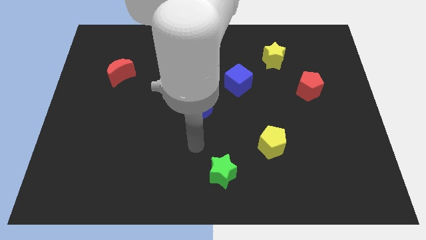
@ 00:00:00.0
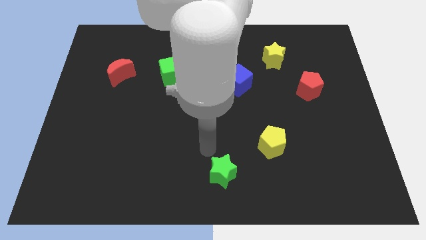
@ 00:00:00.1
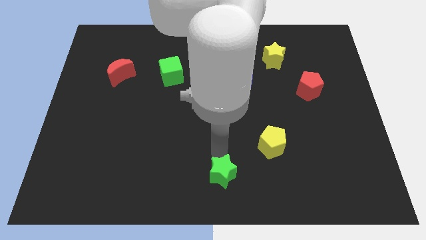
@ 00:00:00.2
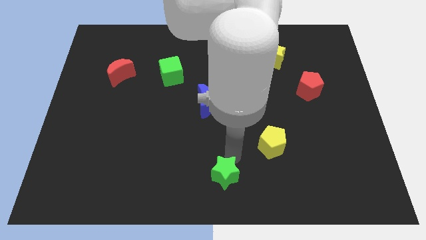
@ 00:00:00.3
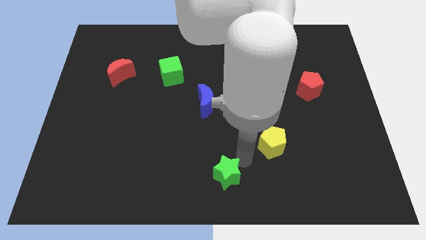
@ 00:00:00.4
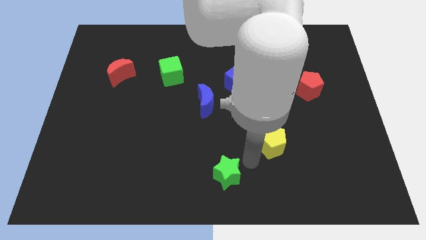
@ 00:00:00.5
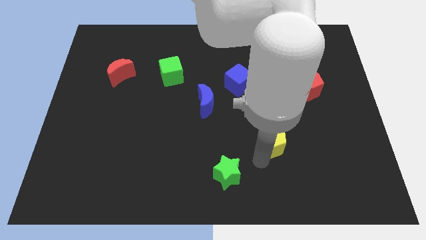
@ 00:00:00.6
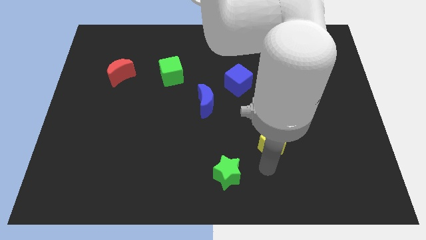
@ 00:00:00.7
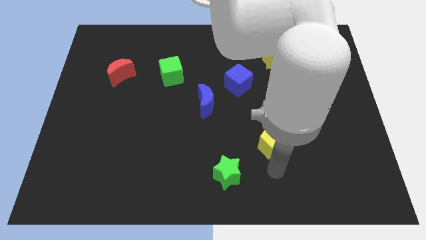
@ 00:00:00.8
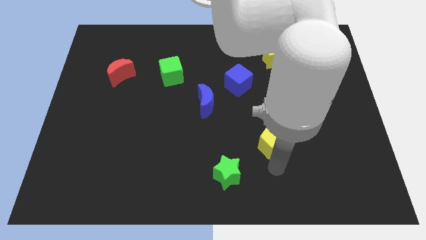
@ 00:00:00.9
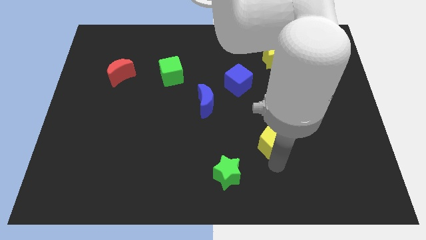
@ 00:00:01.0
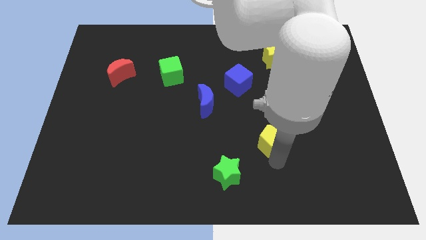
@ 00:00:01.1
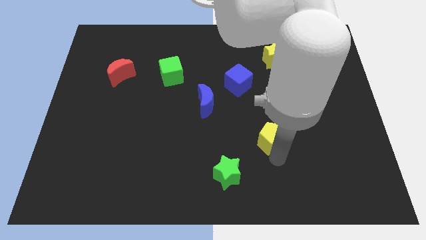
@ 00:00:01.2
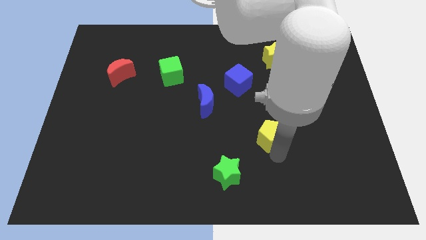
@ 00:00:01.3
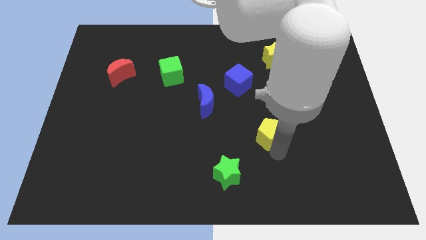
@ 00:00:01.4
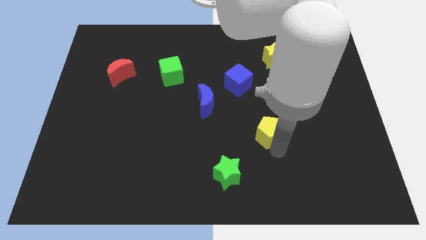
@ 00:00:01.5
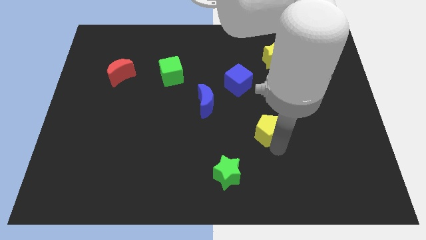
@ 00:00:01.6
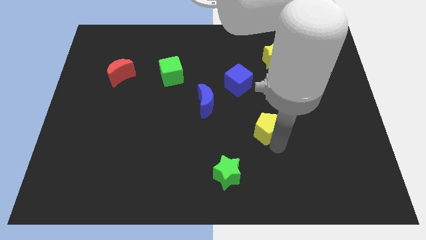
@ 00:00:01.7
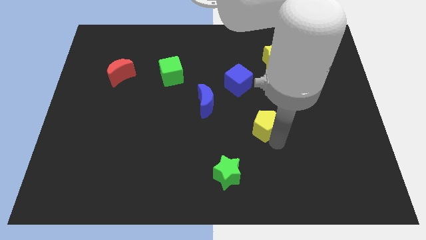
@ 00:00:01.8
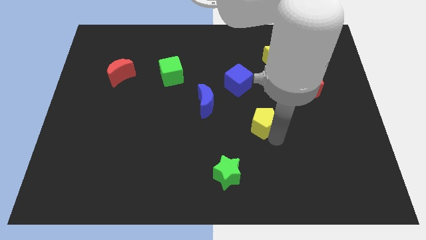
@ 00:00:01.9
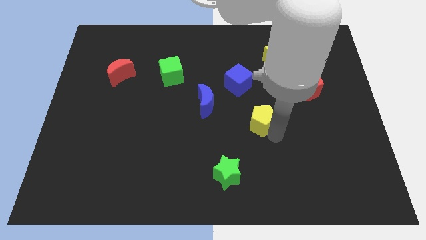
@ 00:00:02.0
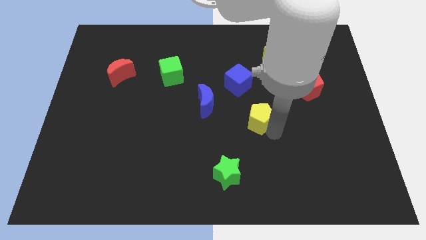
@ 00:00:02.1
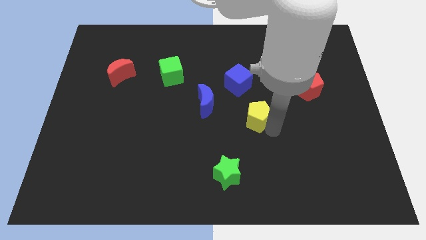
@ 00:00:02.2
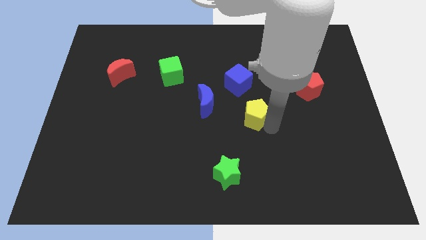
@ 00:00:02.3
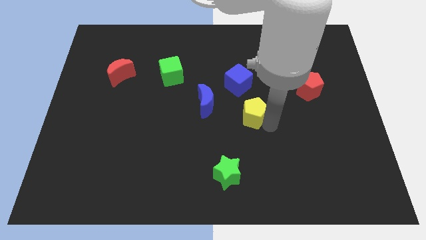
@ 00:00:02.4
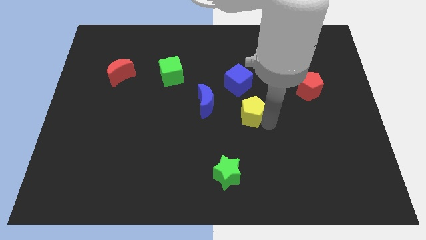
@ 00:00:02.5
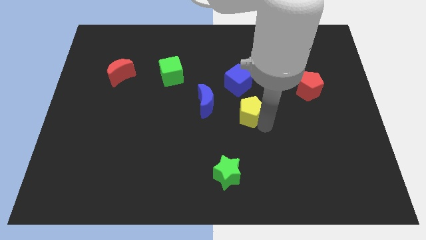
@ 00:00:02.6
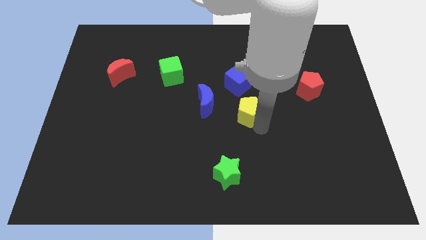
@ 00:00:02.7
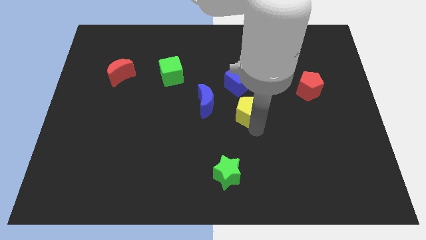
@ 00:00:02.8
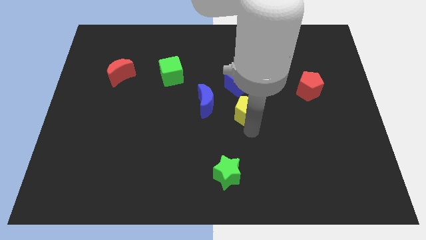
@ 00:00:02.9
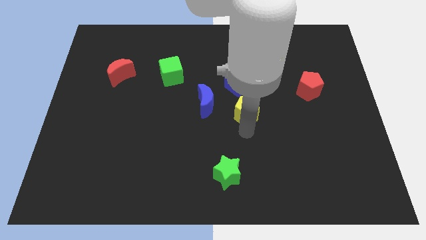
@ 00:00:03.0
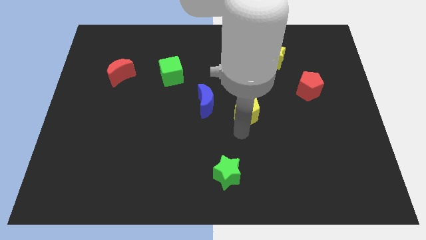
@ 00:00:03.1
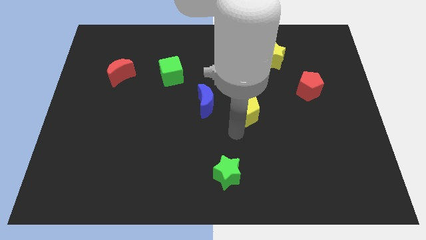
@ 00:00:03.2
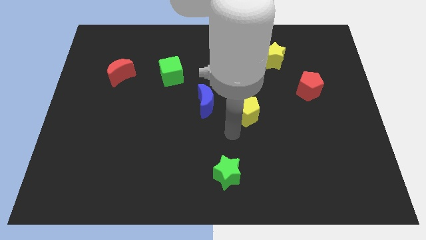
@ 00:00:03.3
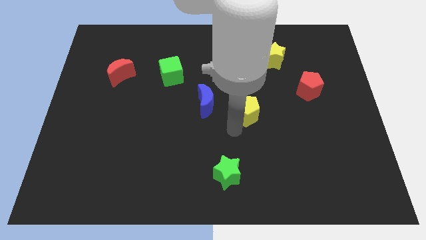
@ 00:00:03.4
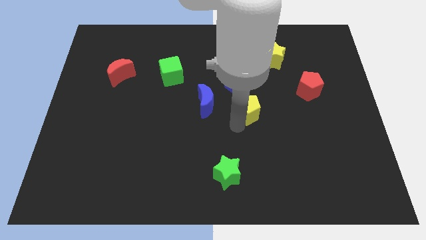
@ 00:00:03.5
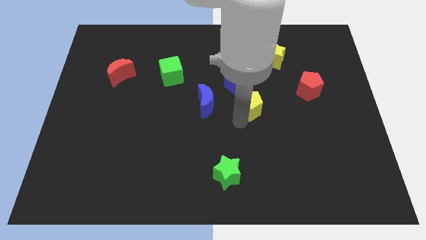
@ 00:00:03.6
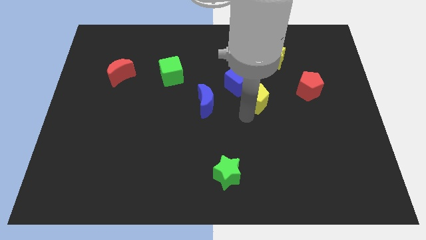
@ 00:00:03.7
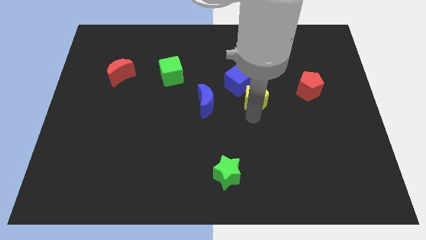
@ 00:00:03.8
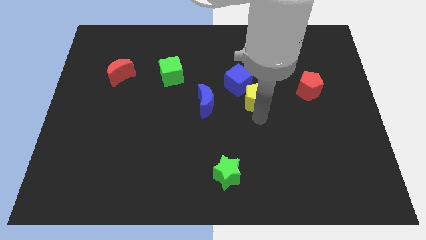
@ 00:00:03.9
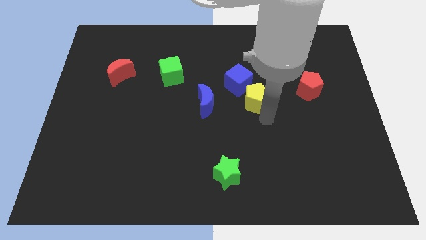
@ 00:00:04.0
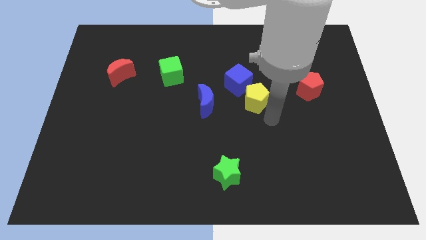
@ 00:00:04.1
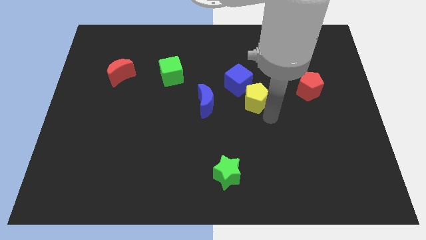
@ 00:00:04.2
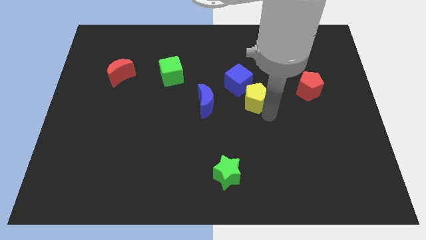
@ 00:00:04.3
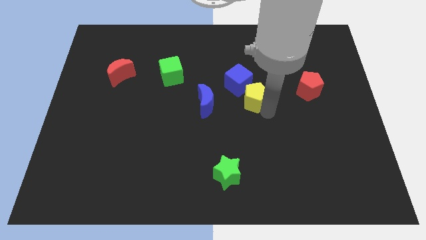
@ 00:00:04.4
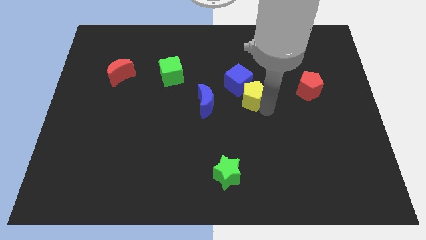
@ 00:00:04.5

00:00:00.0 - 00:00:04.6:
put the yellow pentagon next to the blue cube

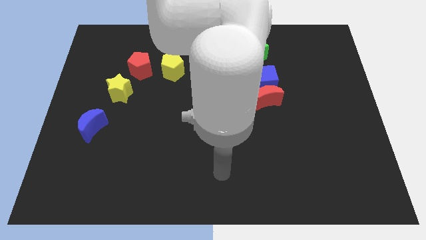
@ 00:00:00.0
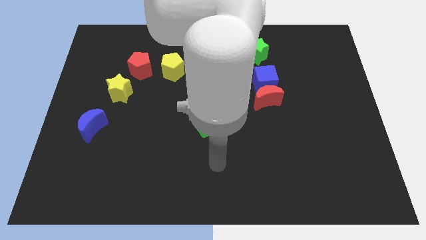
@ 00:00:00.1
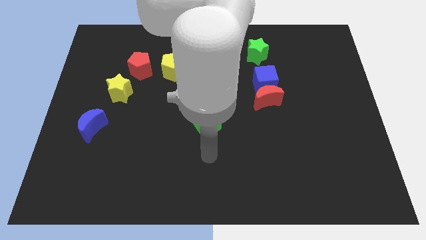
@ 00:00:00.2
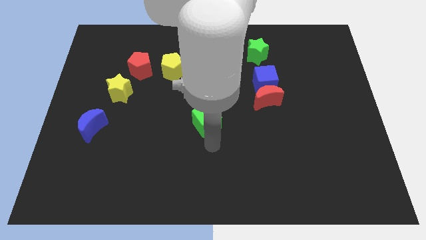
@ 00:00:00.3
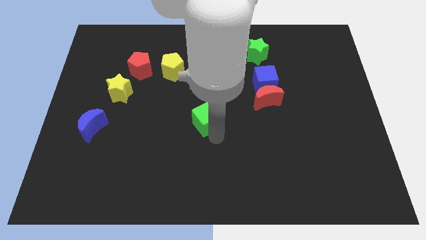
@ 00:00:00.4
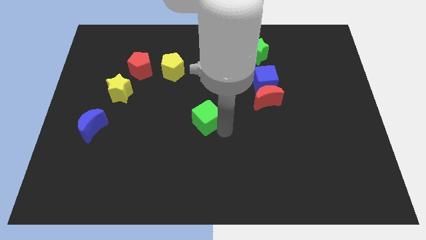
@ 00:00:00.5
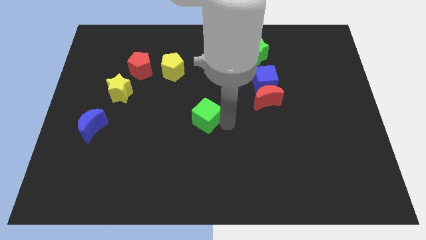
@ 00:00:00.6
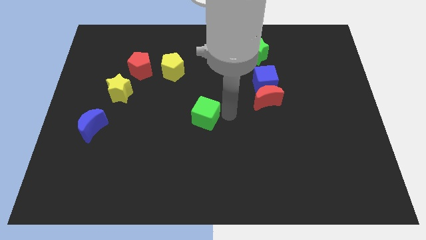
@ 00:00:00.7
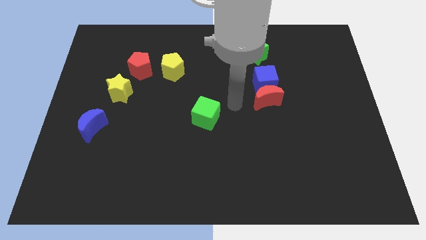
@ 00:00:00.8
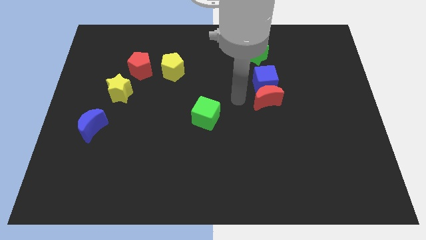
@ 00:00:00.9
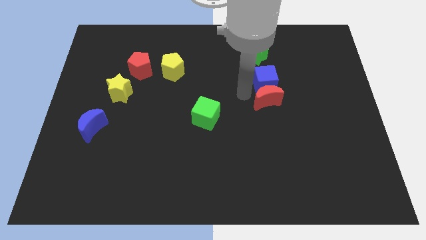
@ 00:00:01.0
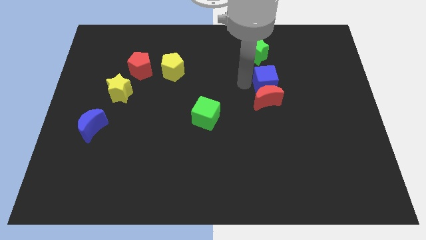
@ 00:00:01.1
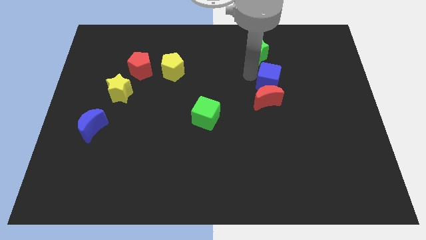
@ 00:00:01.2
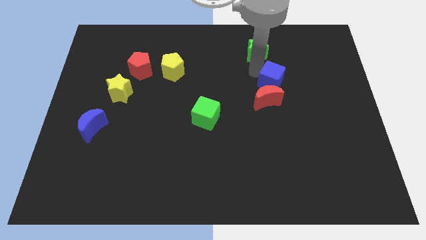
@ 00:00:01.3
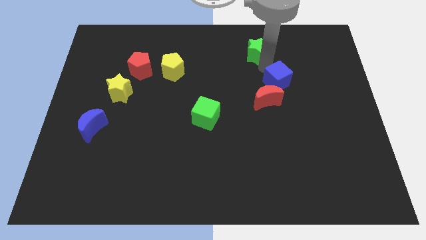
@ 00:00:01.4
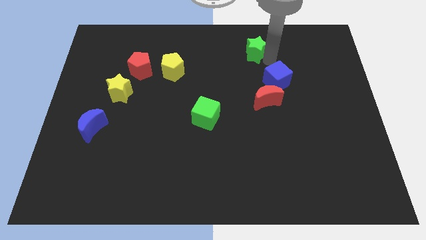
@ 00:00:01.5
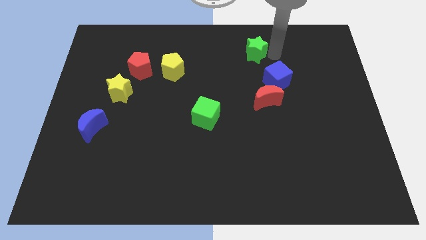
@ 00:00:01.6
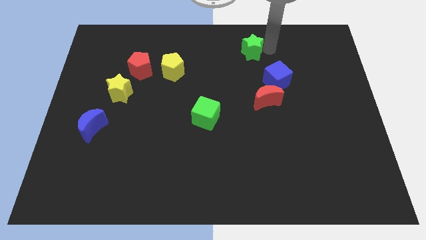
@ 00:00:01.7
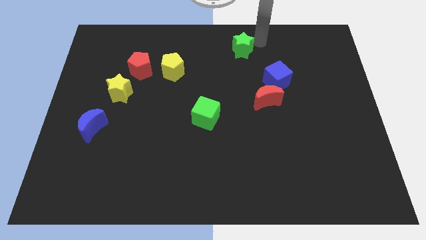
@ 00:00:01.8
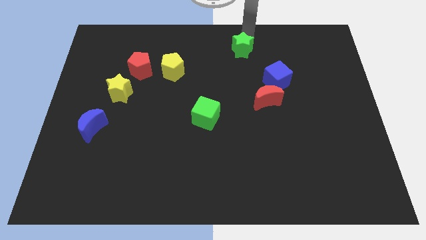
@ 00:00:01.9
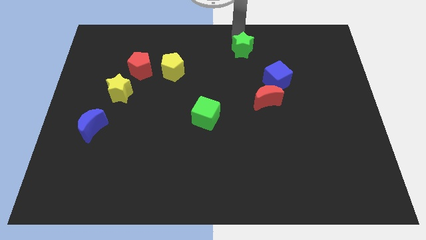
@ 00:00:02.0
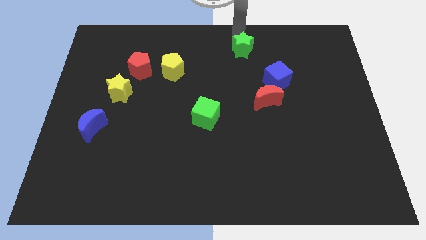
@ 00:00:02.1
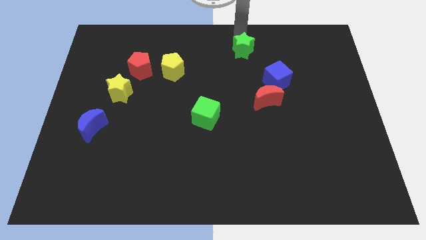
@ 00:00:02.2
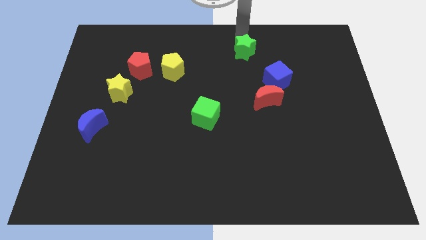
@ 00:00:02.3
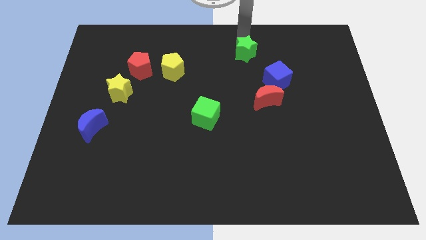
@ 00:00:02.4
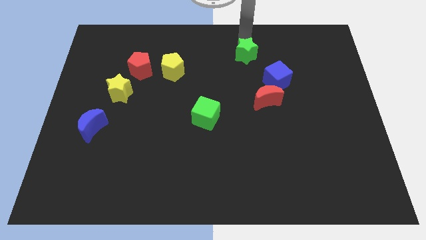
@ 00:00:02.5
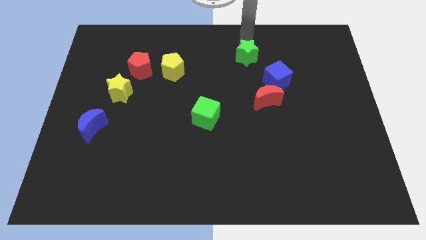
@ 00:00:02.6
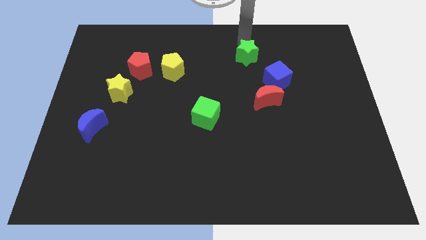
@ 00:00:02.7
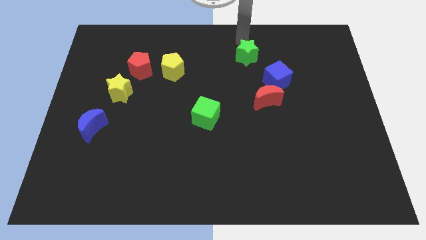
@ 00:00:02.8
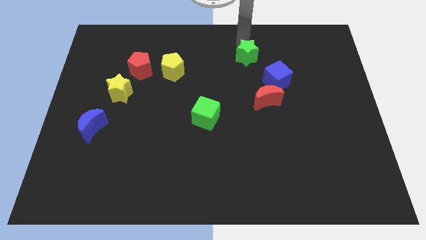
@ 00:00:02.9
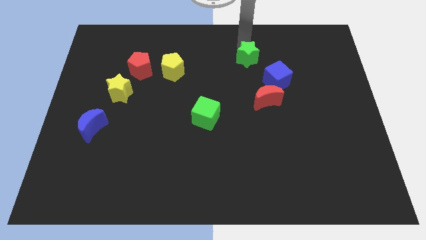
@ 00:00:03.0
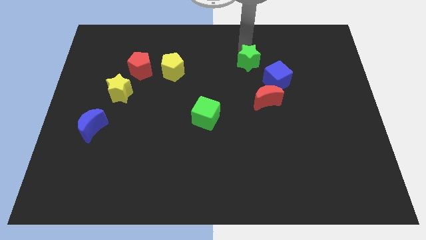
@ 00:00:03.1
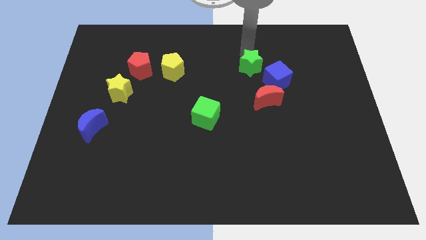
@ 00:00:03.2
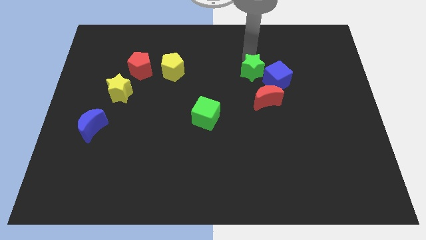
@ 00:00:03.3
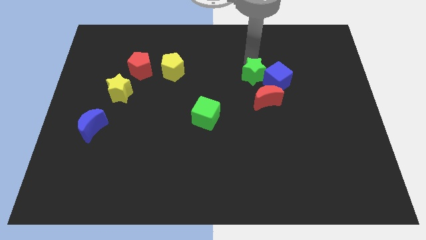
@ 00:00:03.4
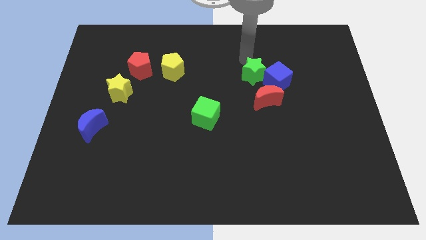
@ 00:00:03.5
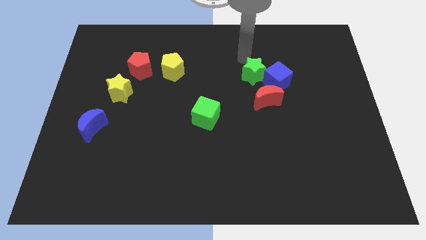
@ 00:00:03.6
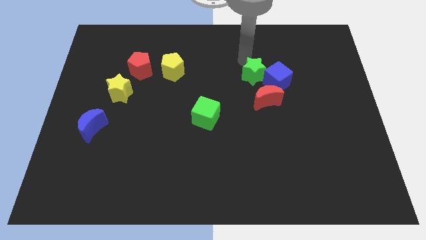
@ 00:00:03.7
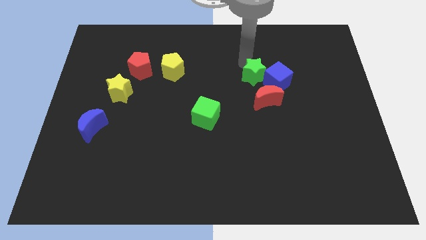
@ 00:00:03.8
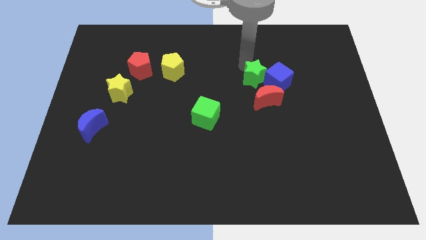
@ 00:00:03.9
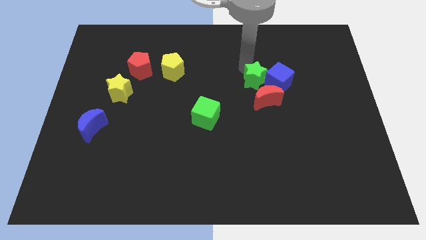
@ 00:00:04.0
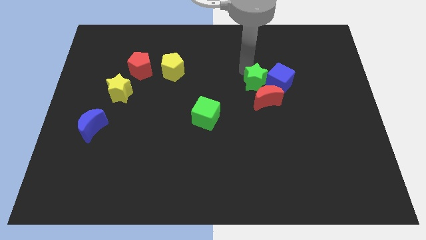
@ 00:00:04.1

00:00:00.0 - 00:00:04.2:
push the green star next to the red moon
